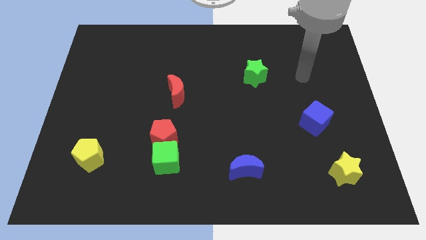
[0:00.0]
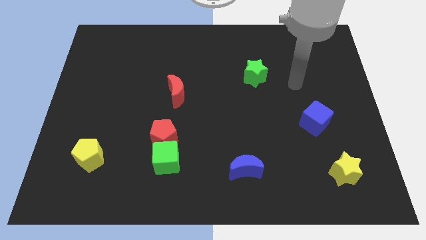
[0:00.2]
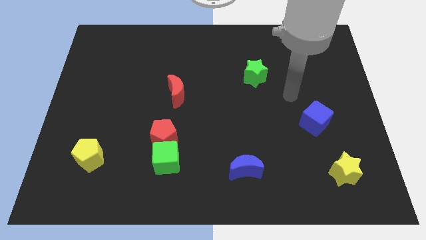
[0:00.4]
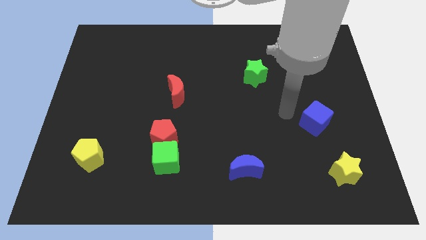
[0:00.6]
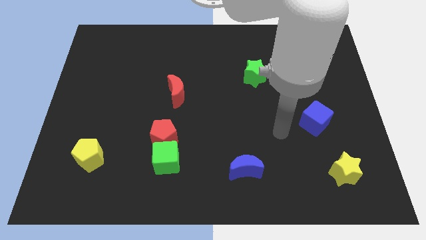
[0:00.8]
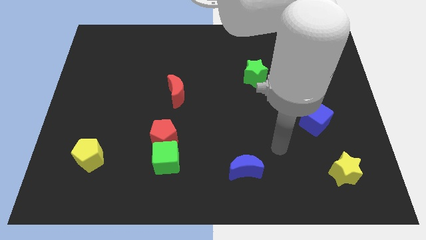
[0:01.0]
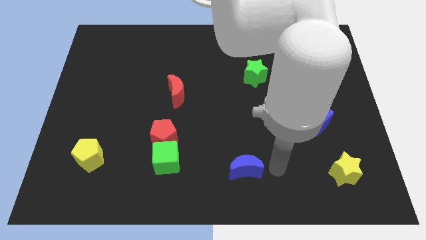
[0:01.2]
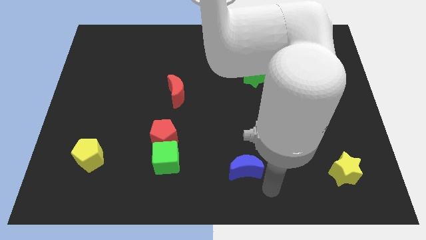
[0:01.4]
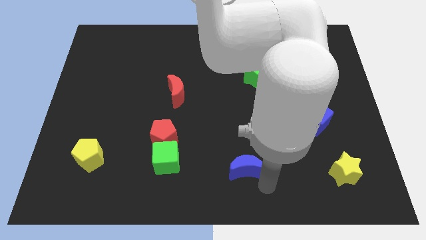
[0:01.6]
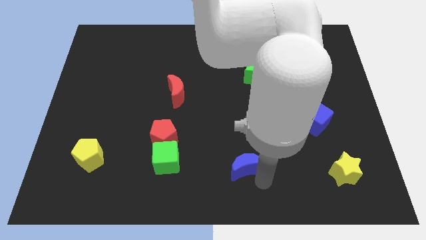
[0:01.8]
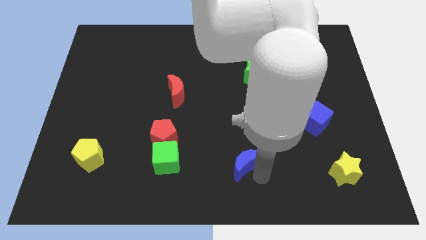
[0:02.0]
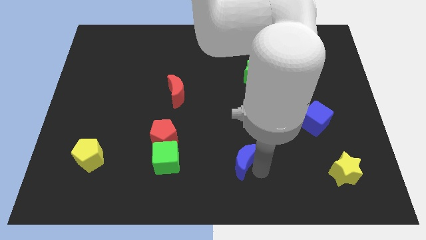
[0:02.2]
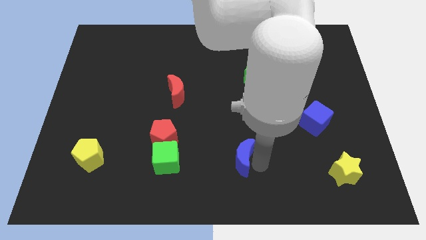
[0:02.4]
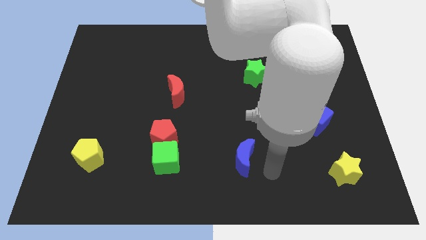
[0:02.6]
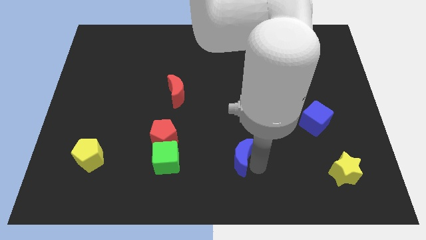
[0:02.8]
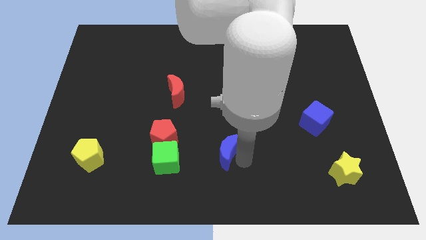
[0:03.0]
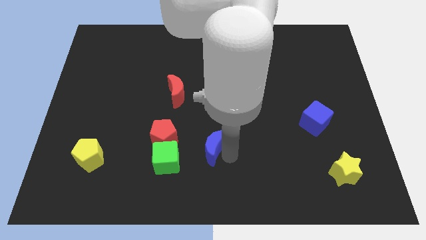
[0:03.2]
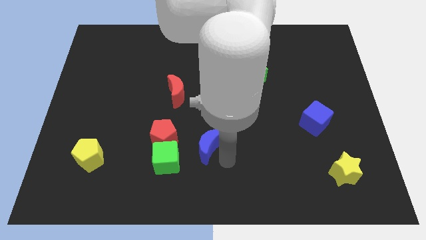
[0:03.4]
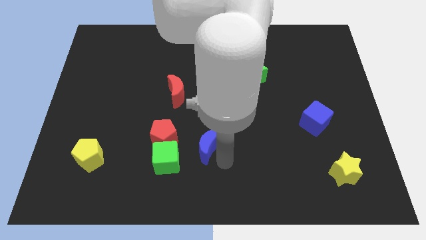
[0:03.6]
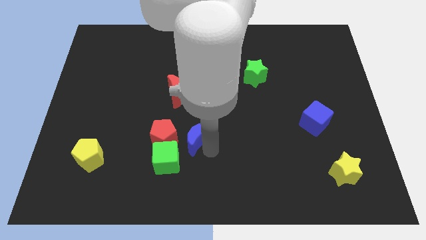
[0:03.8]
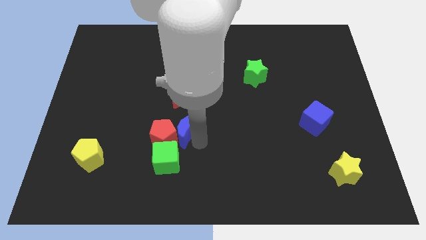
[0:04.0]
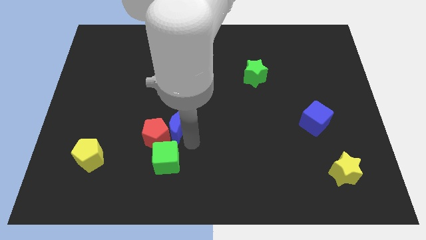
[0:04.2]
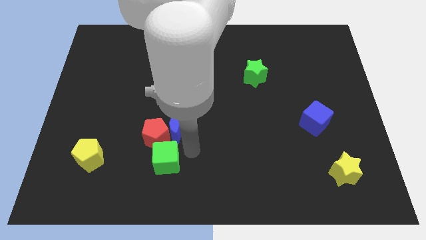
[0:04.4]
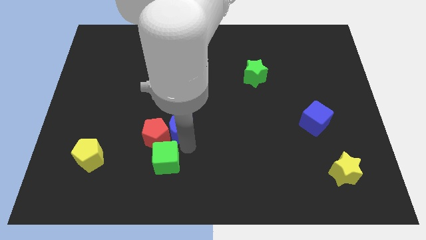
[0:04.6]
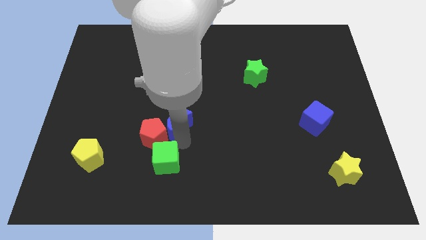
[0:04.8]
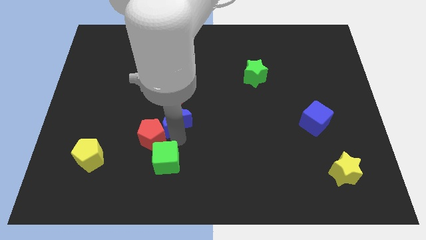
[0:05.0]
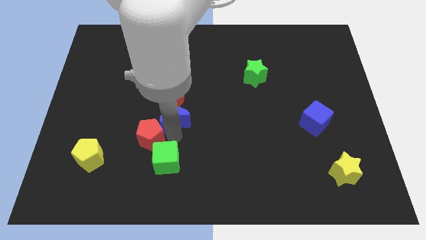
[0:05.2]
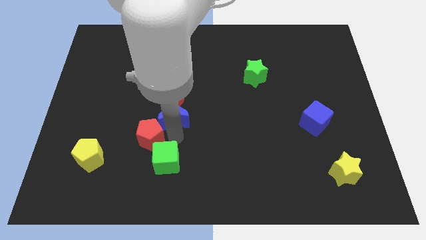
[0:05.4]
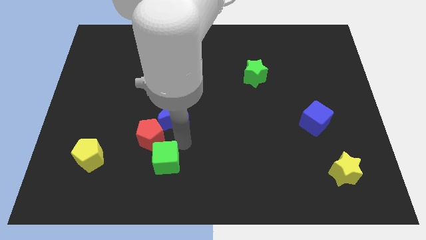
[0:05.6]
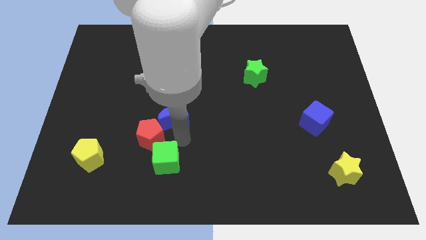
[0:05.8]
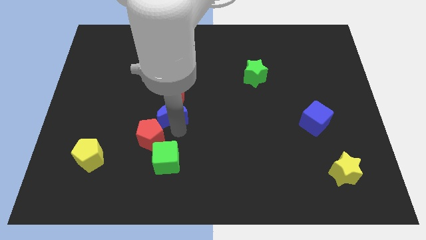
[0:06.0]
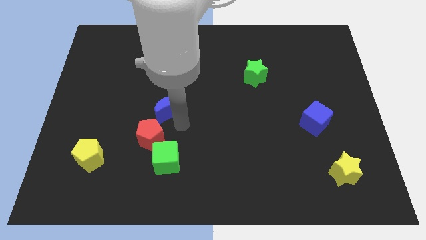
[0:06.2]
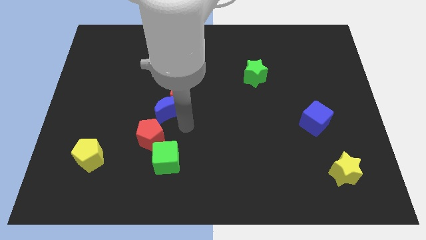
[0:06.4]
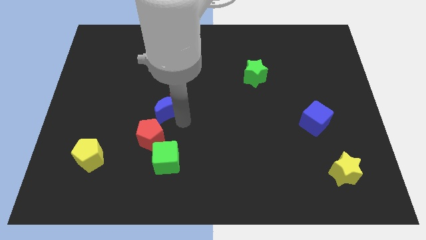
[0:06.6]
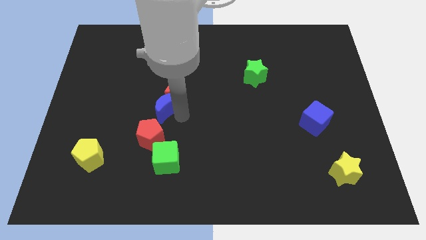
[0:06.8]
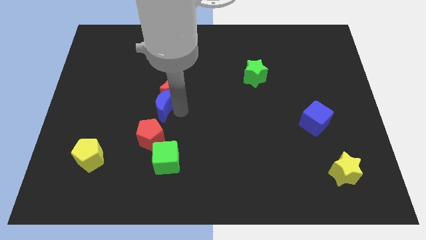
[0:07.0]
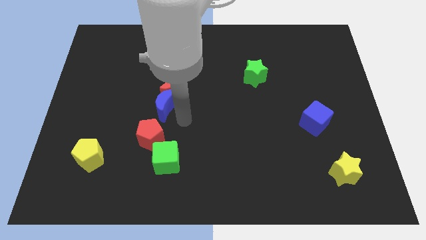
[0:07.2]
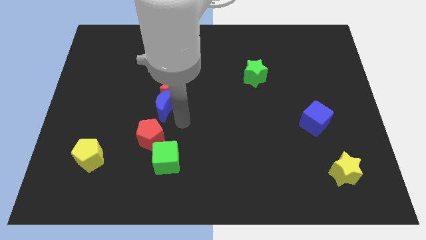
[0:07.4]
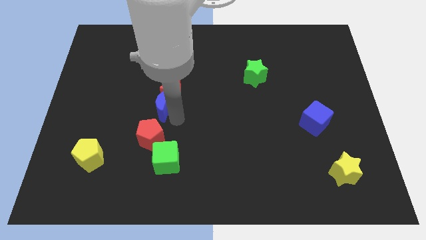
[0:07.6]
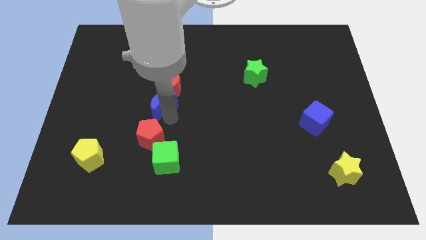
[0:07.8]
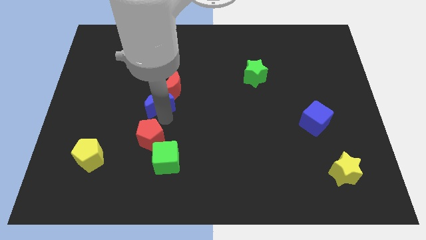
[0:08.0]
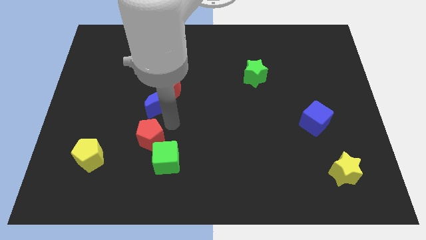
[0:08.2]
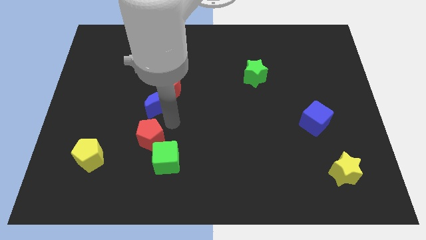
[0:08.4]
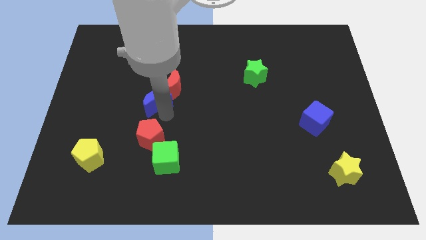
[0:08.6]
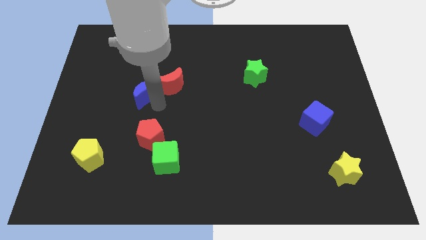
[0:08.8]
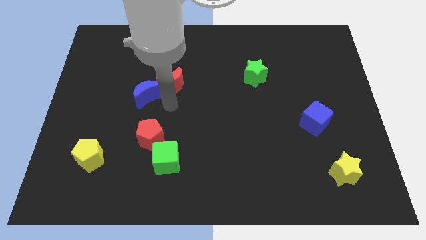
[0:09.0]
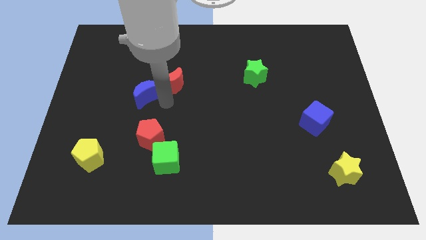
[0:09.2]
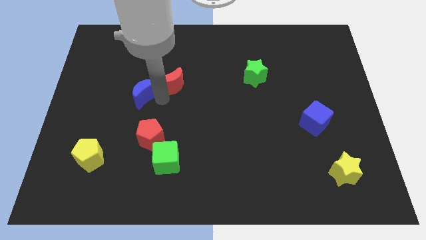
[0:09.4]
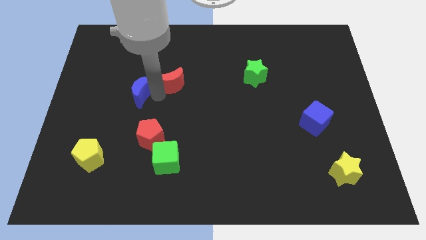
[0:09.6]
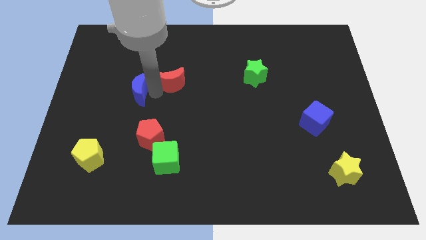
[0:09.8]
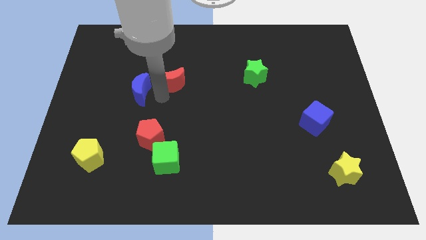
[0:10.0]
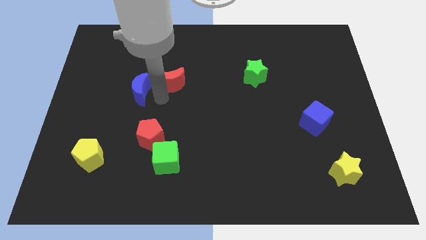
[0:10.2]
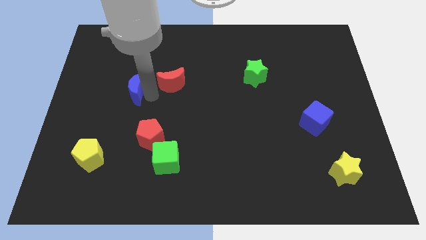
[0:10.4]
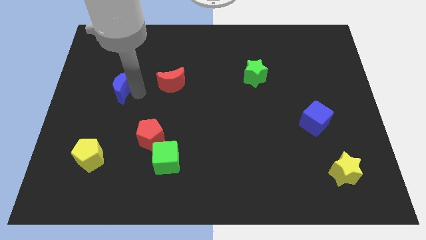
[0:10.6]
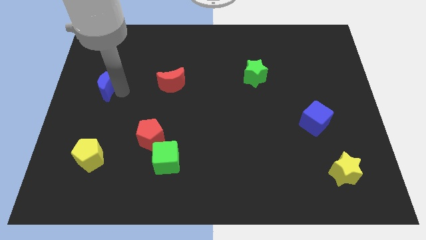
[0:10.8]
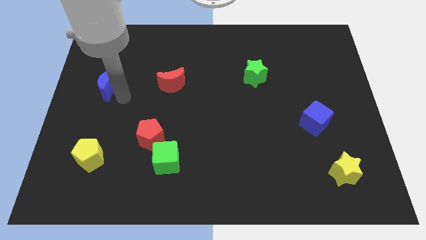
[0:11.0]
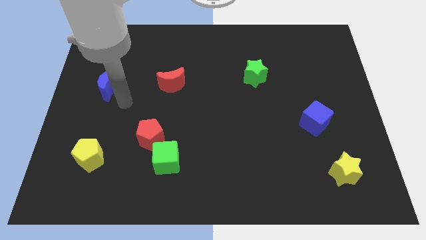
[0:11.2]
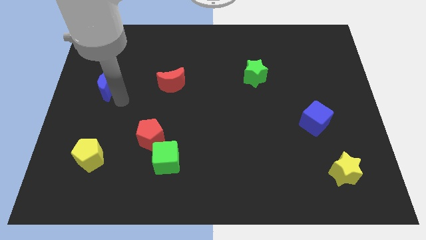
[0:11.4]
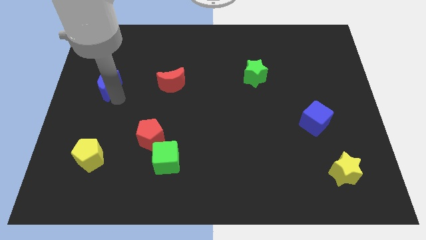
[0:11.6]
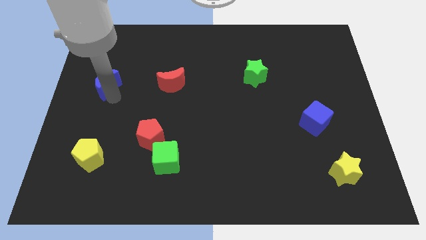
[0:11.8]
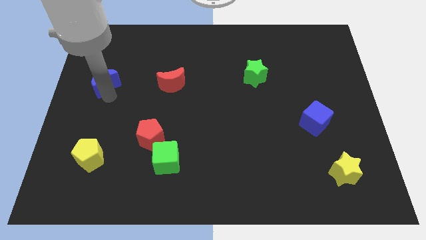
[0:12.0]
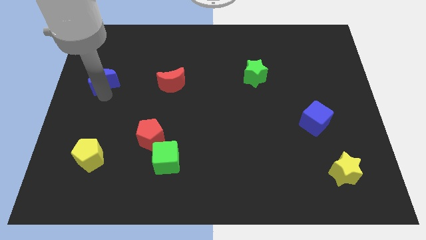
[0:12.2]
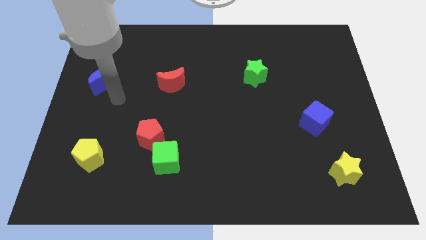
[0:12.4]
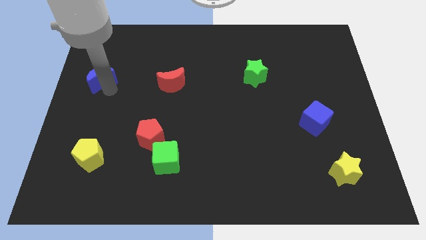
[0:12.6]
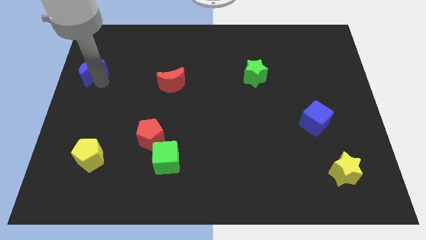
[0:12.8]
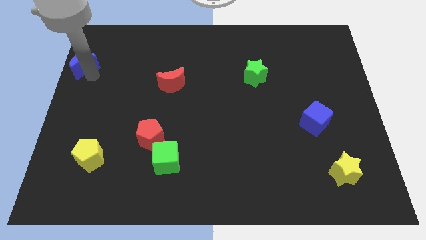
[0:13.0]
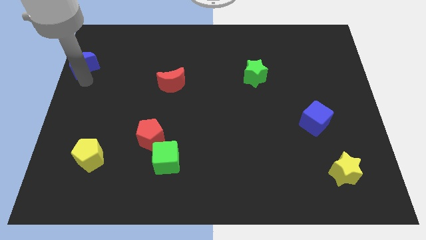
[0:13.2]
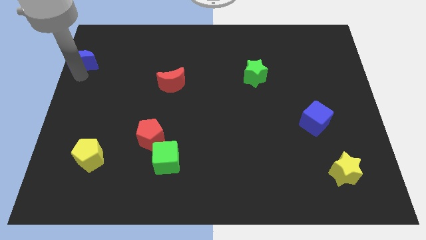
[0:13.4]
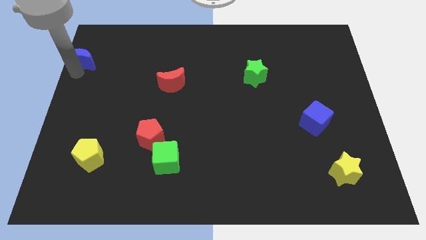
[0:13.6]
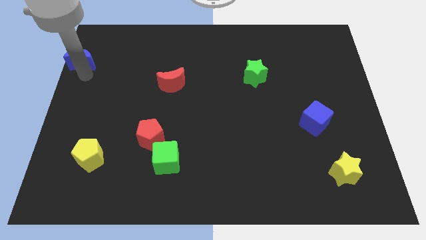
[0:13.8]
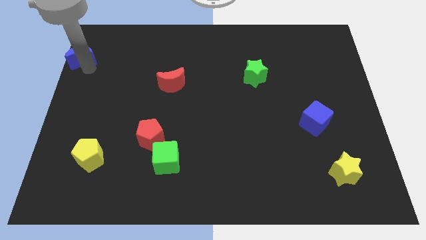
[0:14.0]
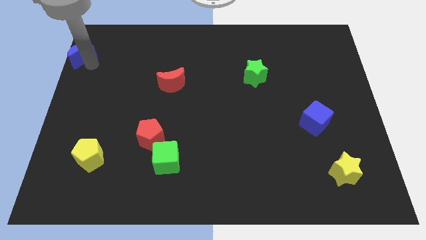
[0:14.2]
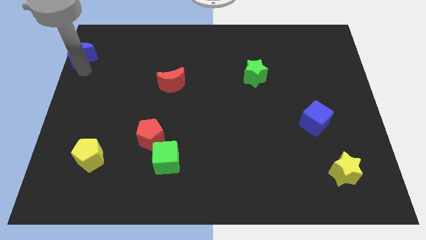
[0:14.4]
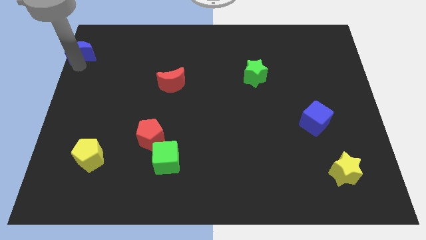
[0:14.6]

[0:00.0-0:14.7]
push the blue moon to the top left corner
